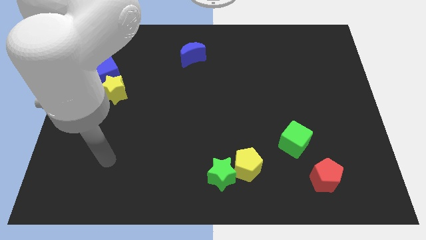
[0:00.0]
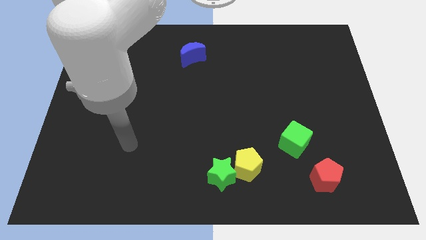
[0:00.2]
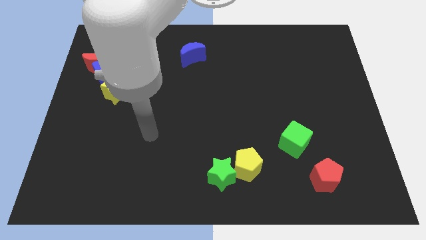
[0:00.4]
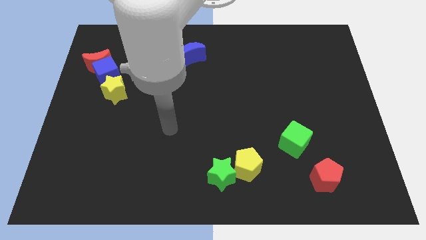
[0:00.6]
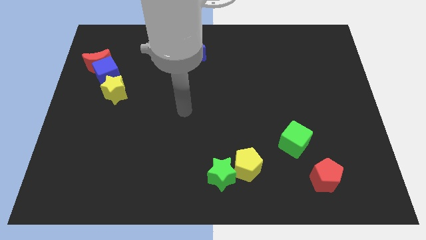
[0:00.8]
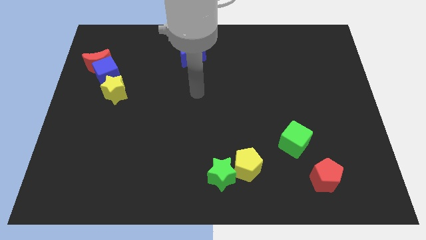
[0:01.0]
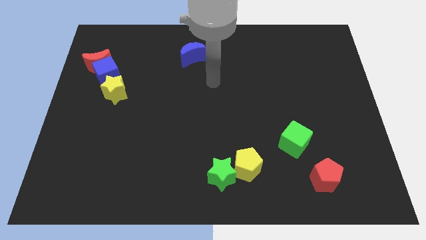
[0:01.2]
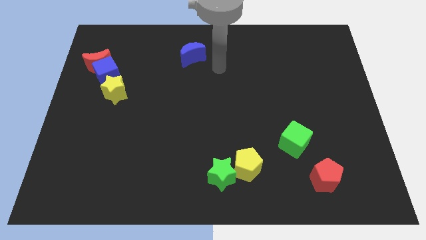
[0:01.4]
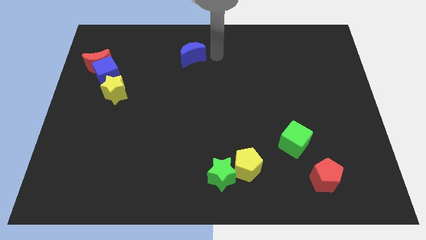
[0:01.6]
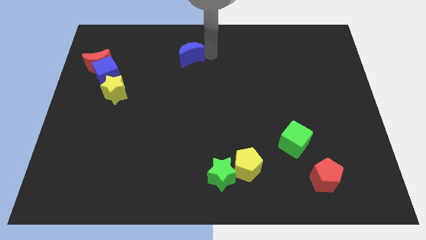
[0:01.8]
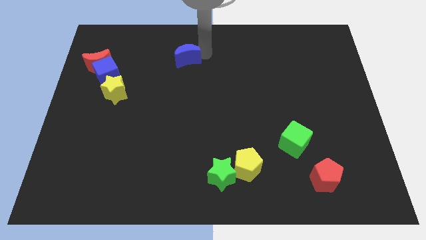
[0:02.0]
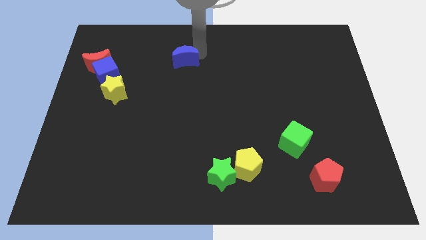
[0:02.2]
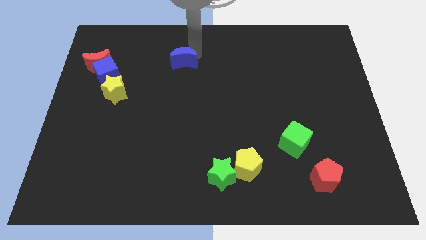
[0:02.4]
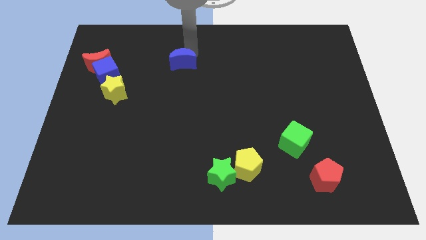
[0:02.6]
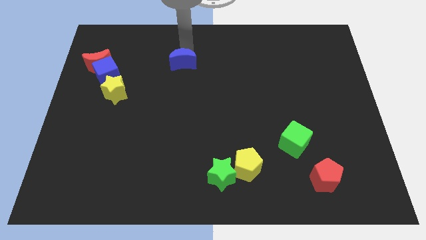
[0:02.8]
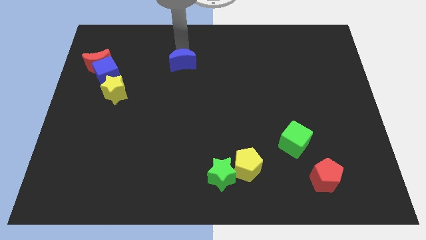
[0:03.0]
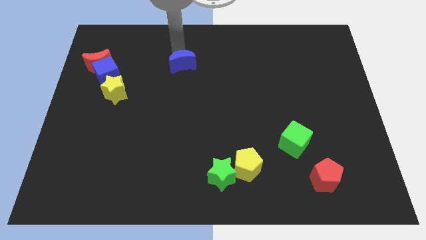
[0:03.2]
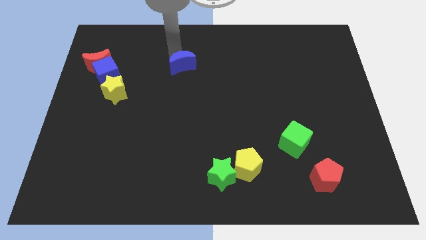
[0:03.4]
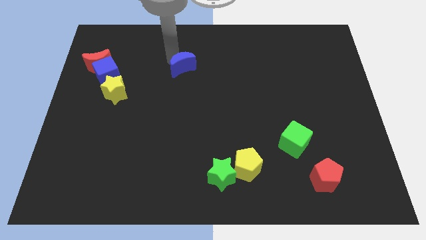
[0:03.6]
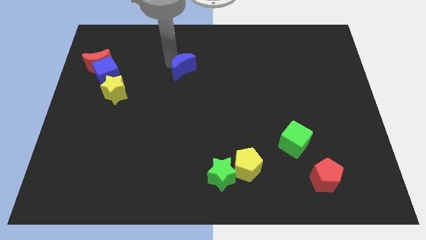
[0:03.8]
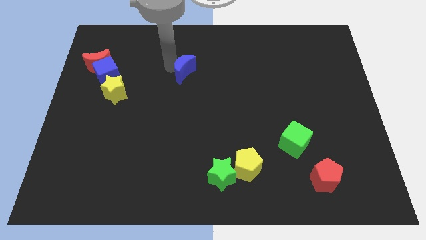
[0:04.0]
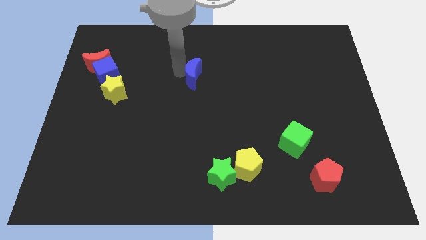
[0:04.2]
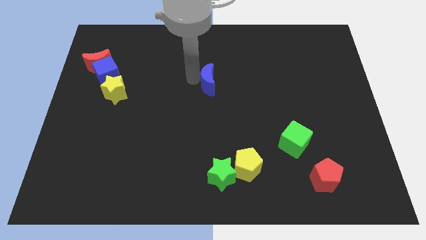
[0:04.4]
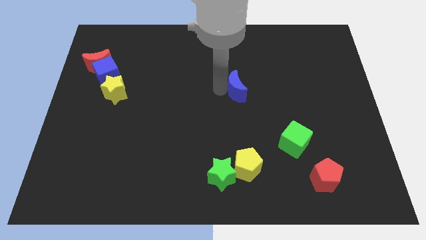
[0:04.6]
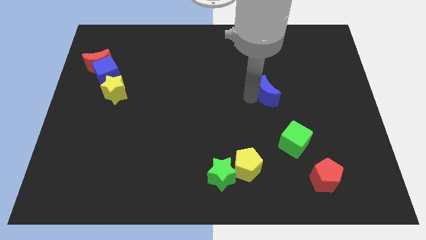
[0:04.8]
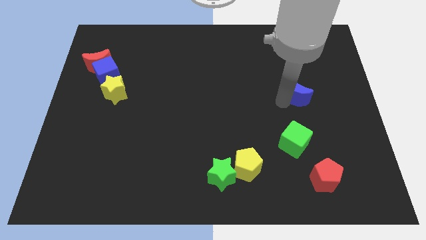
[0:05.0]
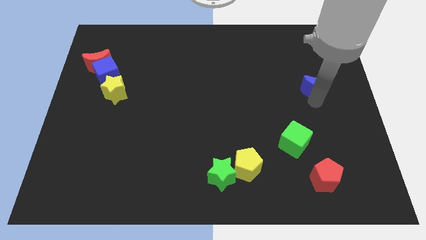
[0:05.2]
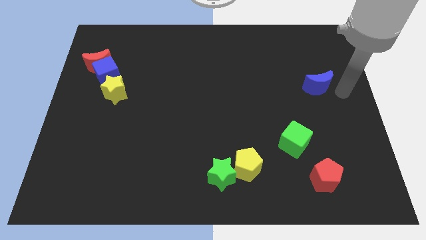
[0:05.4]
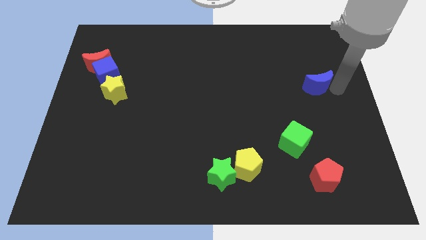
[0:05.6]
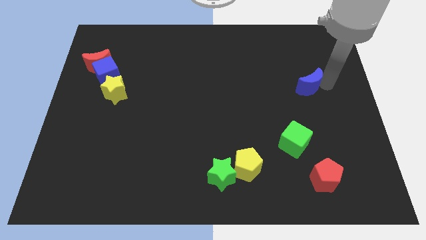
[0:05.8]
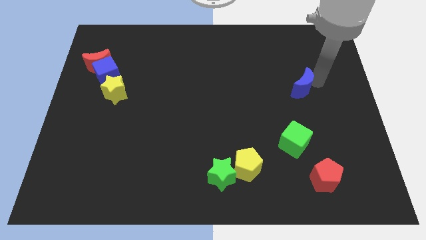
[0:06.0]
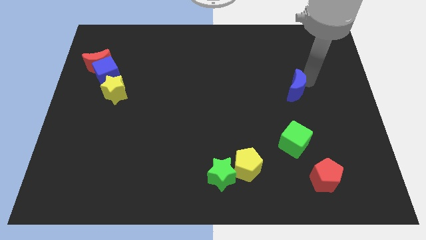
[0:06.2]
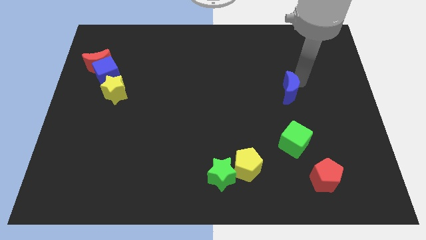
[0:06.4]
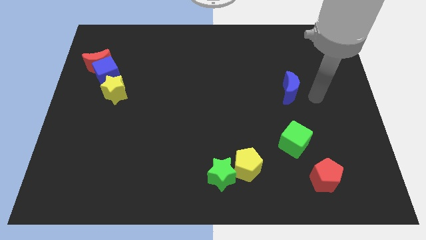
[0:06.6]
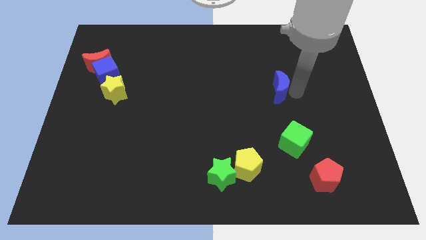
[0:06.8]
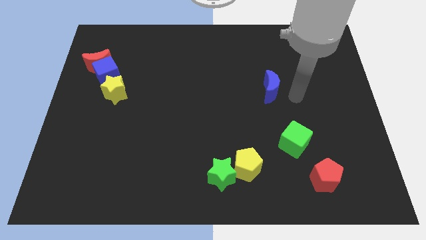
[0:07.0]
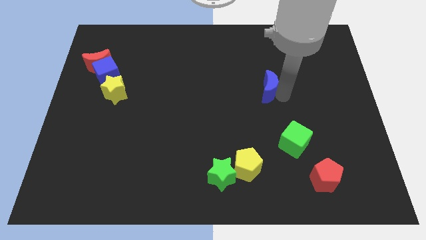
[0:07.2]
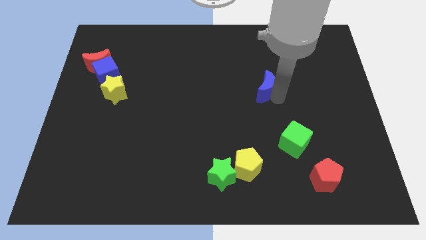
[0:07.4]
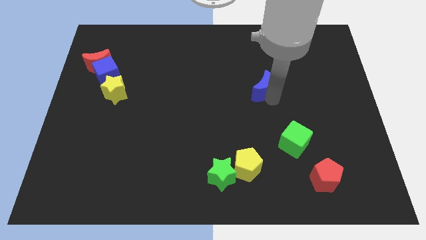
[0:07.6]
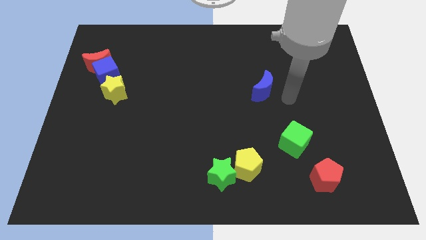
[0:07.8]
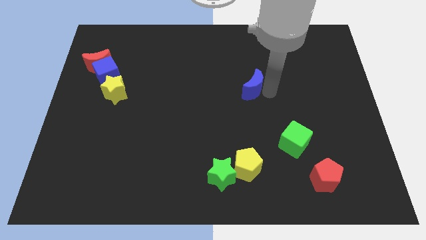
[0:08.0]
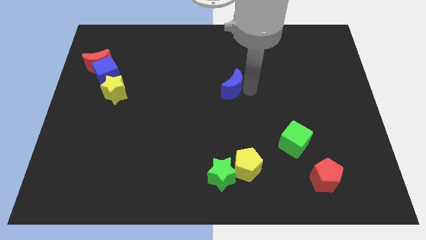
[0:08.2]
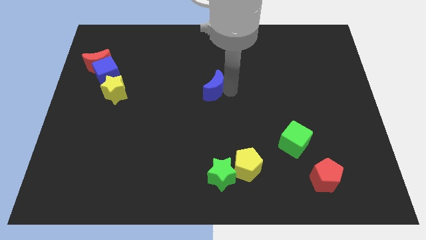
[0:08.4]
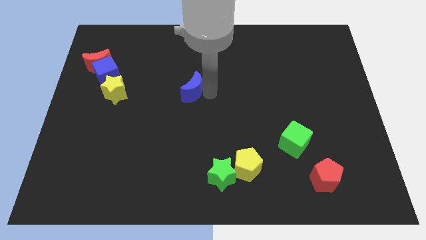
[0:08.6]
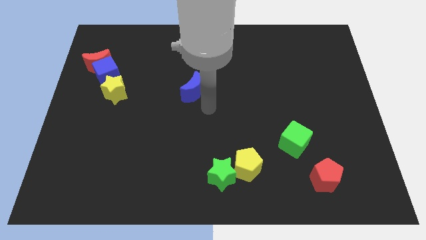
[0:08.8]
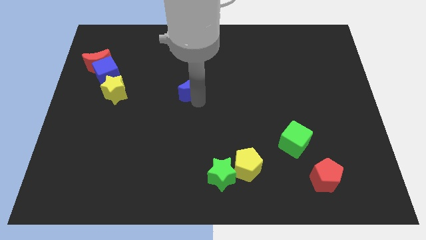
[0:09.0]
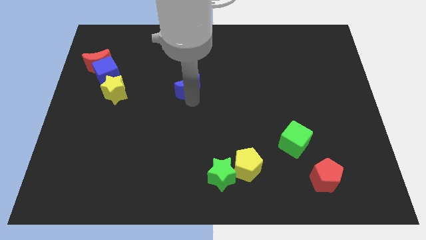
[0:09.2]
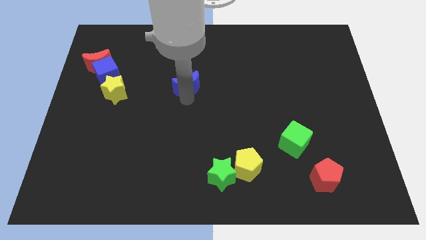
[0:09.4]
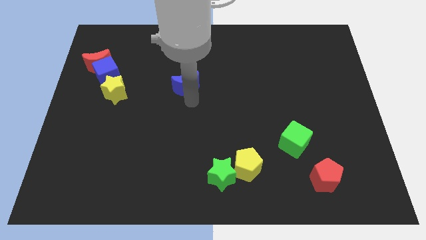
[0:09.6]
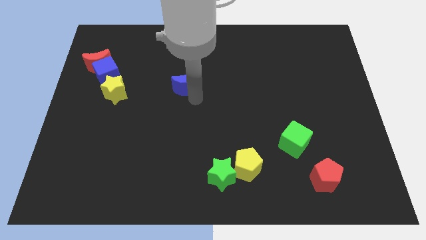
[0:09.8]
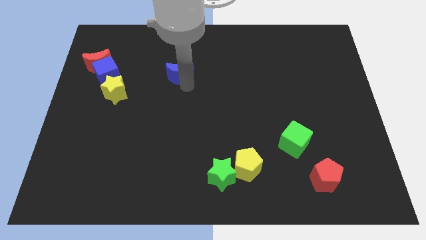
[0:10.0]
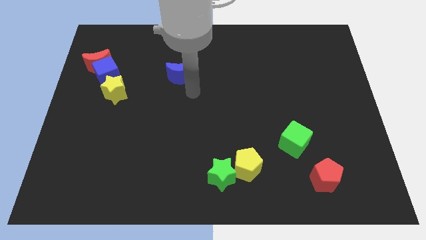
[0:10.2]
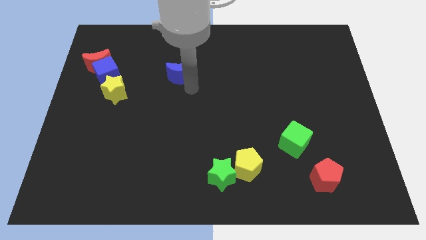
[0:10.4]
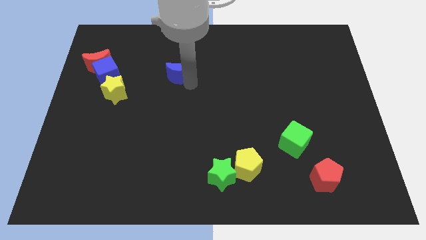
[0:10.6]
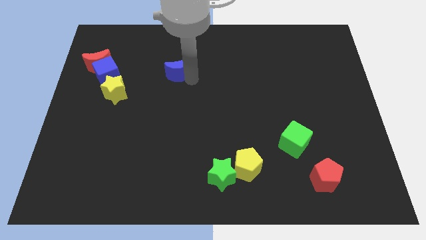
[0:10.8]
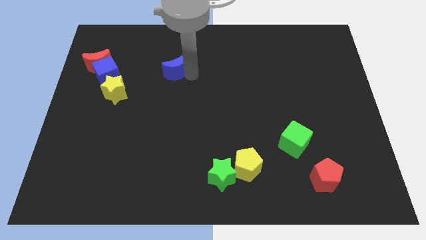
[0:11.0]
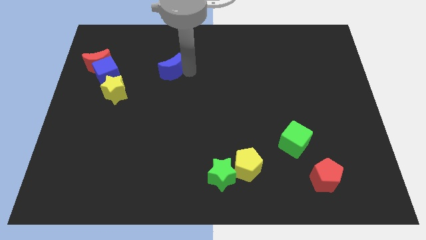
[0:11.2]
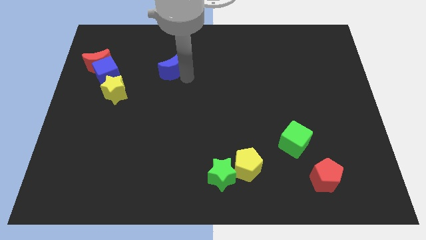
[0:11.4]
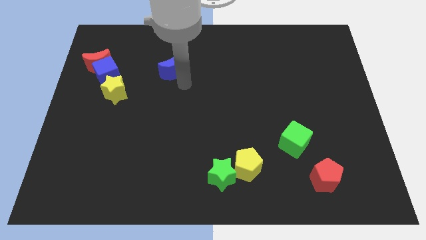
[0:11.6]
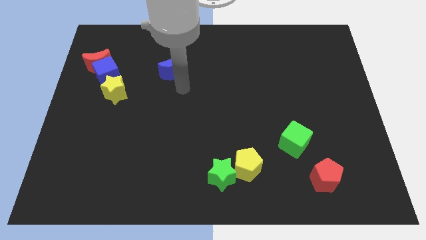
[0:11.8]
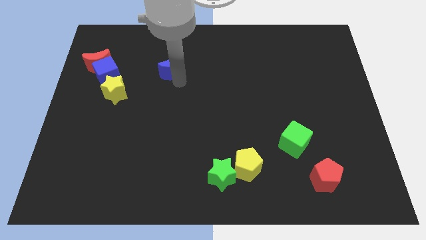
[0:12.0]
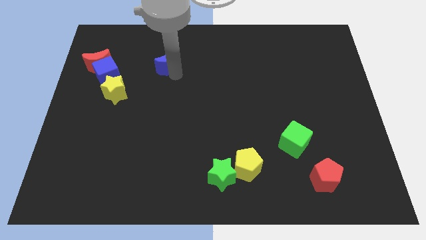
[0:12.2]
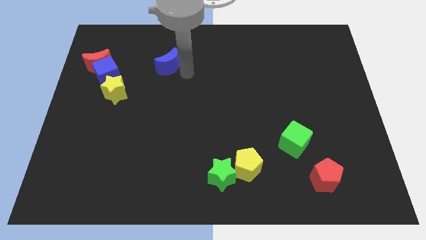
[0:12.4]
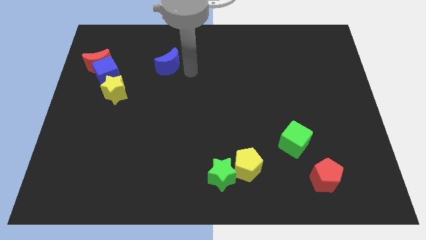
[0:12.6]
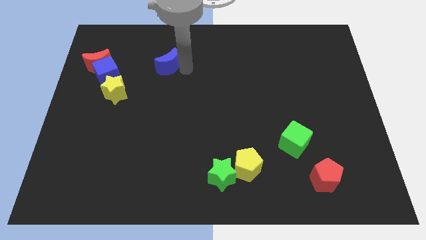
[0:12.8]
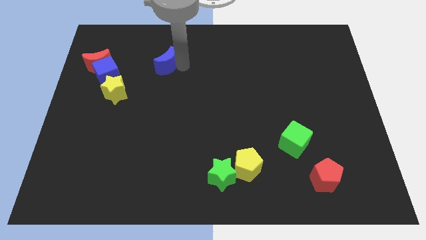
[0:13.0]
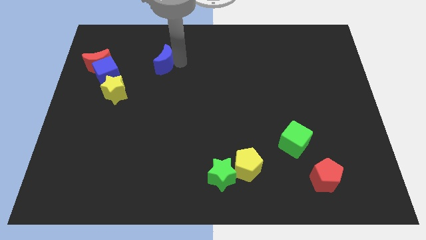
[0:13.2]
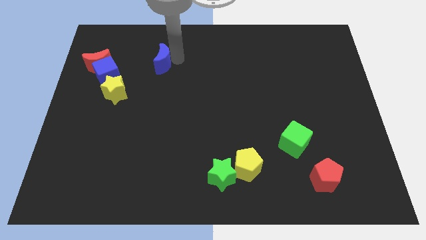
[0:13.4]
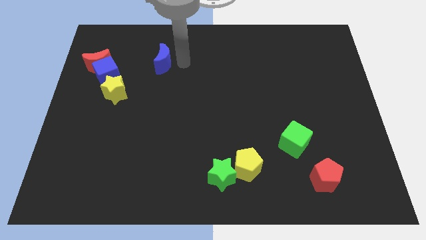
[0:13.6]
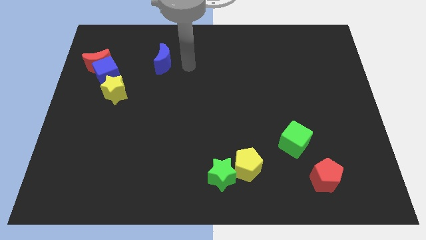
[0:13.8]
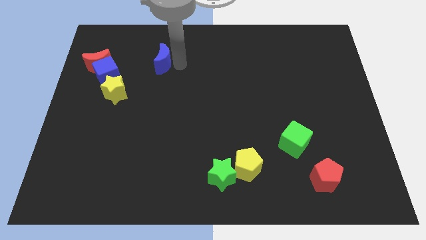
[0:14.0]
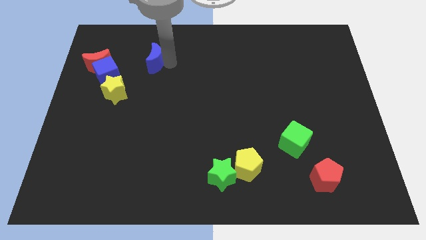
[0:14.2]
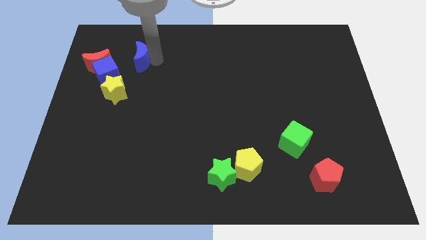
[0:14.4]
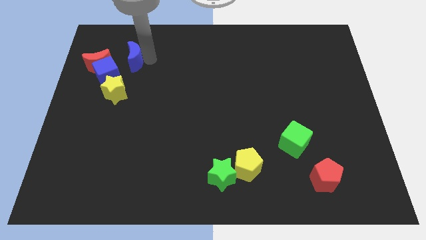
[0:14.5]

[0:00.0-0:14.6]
put the blue moon to the top side of the yellow star
